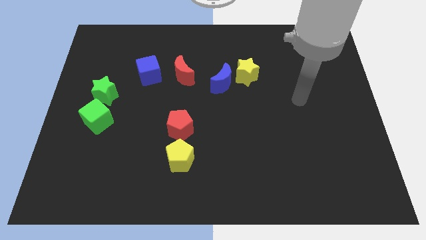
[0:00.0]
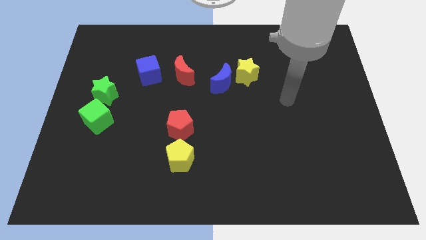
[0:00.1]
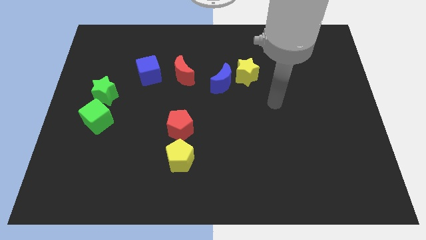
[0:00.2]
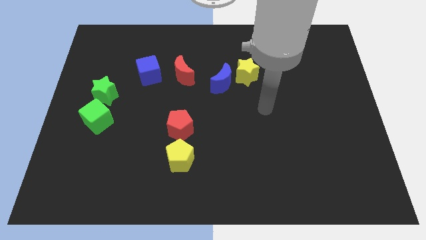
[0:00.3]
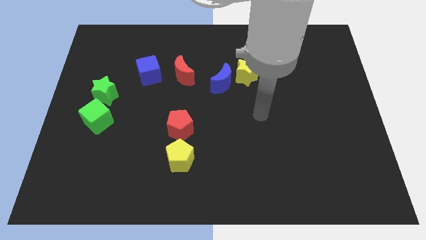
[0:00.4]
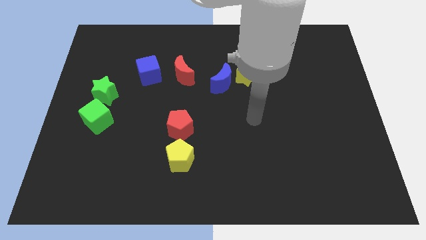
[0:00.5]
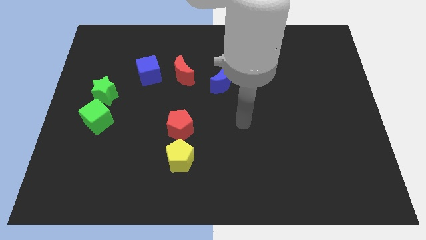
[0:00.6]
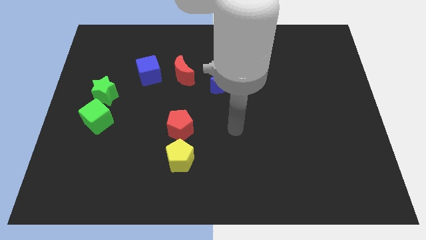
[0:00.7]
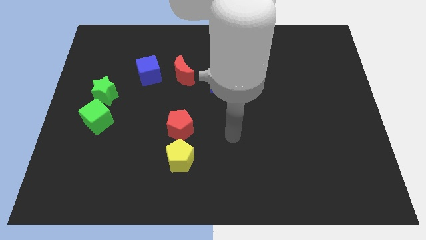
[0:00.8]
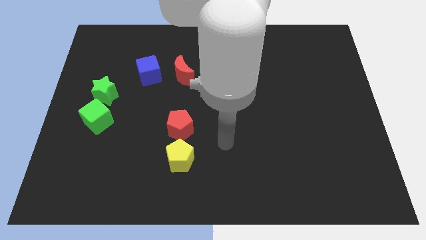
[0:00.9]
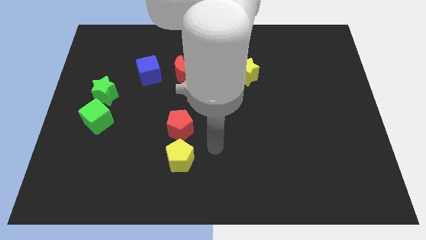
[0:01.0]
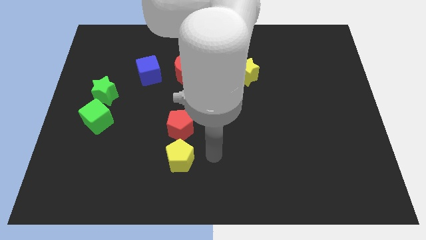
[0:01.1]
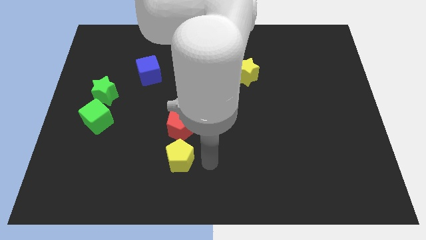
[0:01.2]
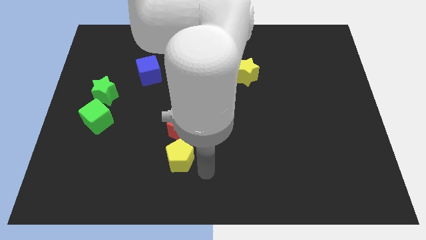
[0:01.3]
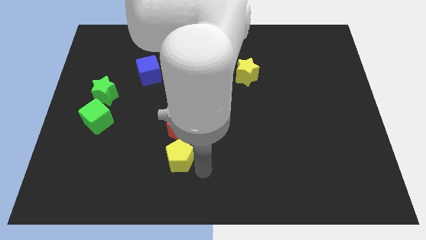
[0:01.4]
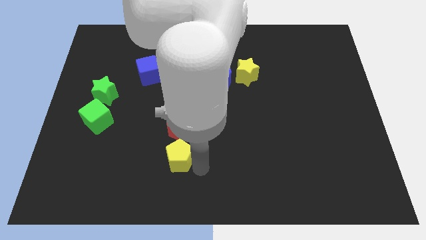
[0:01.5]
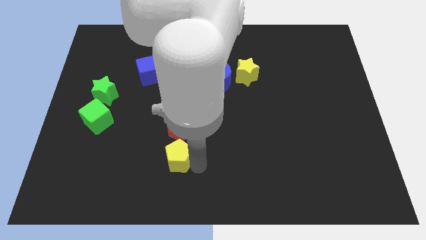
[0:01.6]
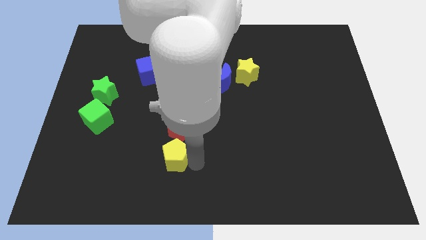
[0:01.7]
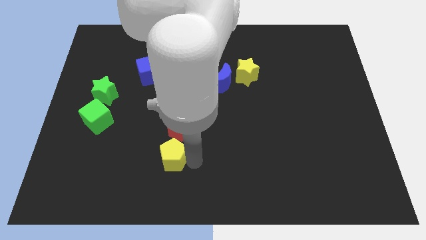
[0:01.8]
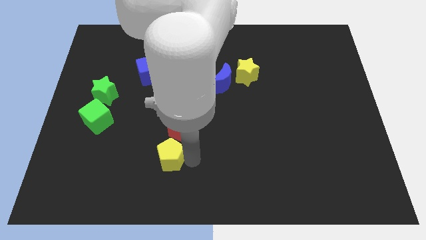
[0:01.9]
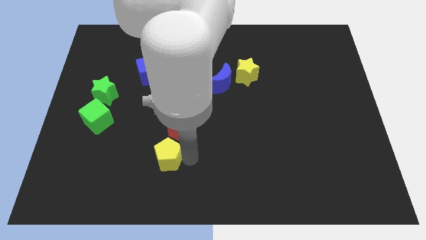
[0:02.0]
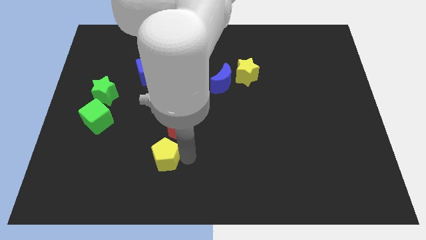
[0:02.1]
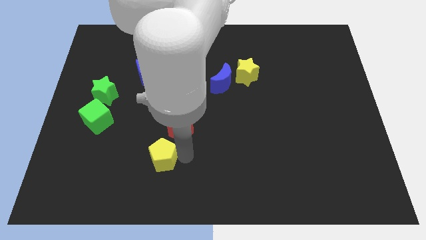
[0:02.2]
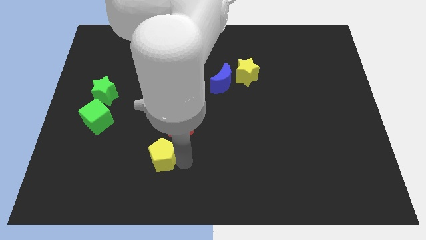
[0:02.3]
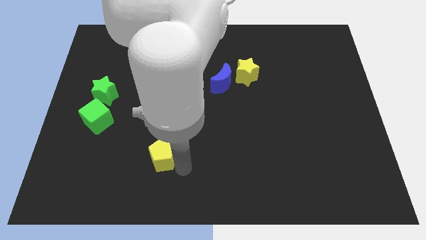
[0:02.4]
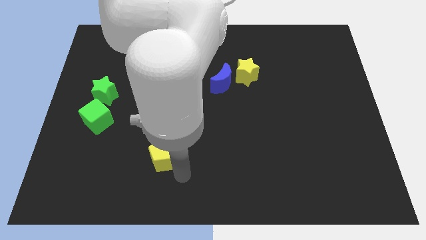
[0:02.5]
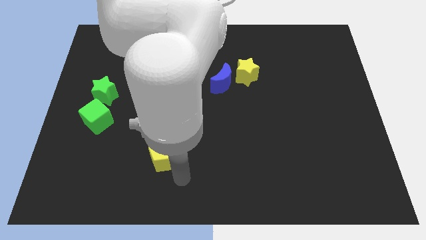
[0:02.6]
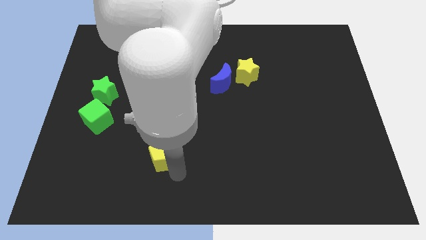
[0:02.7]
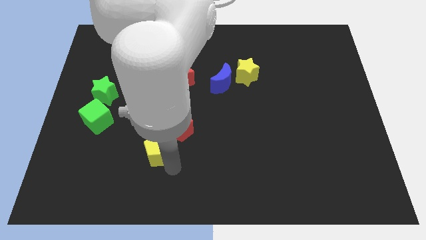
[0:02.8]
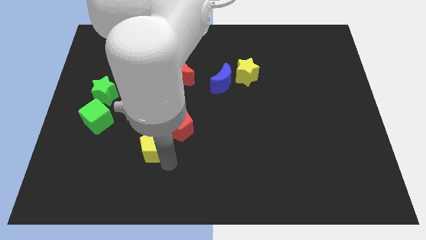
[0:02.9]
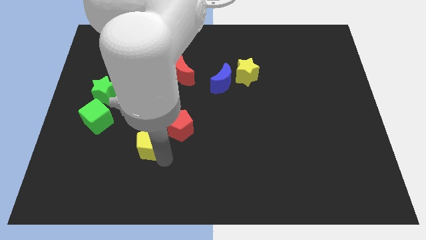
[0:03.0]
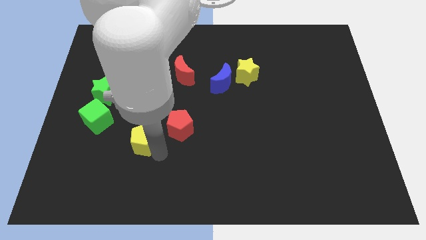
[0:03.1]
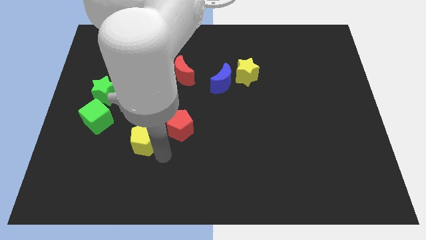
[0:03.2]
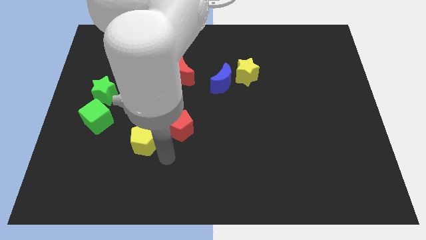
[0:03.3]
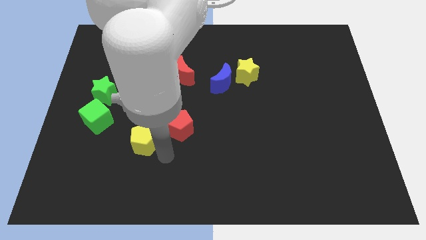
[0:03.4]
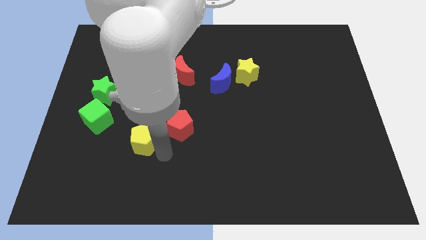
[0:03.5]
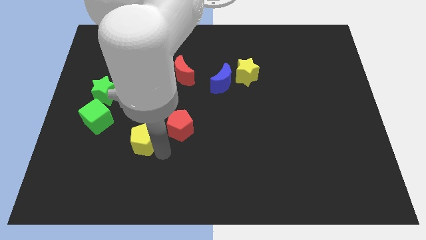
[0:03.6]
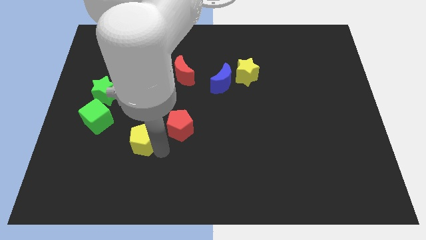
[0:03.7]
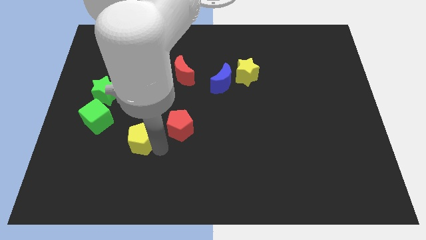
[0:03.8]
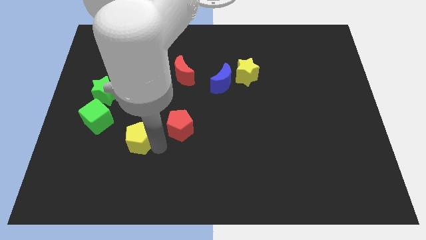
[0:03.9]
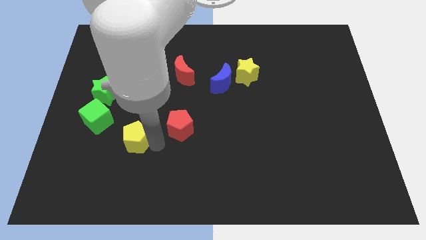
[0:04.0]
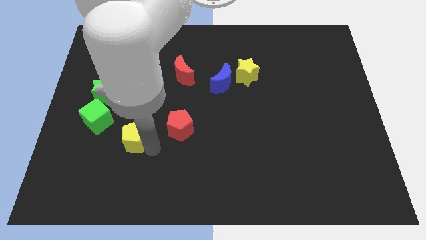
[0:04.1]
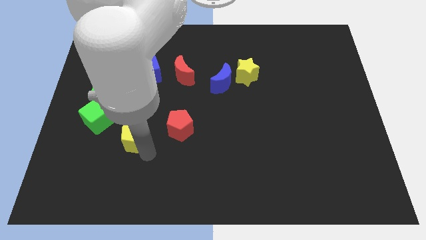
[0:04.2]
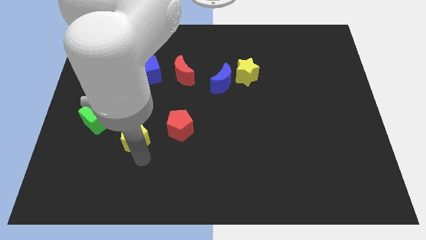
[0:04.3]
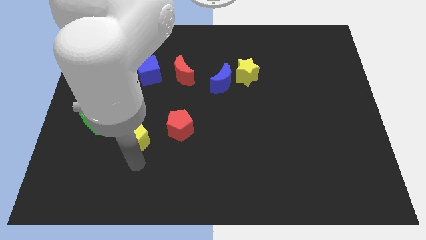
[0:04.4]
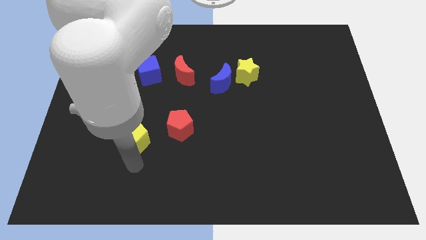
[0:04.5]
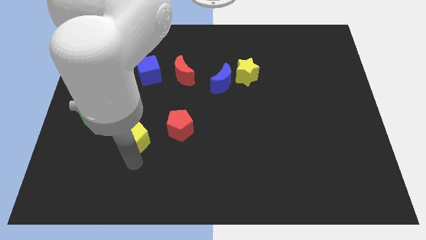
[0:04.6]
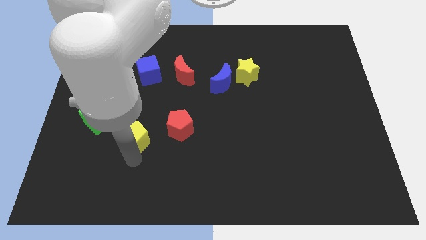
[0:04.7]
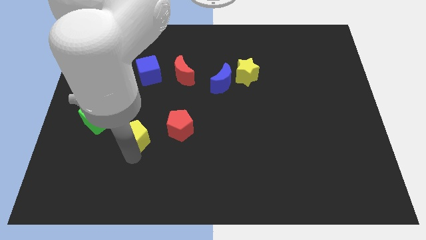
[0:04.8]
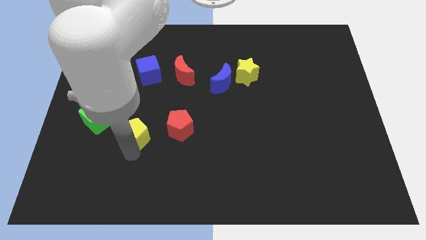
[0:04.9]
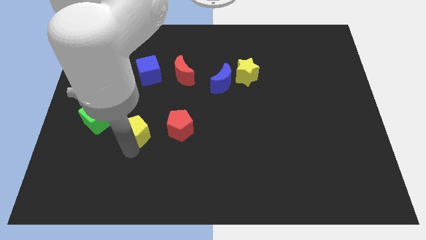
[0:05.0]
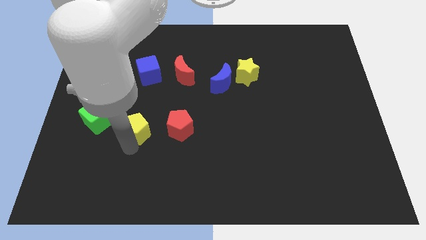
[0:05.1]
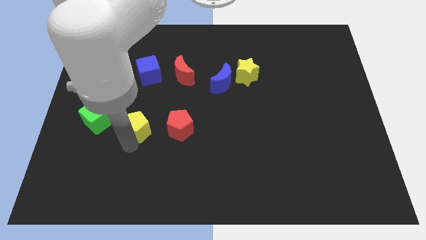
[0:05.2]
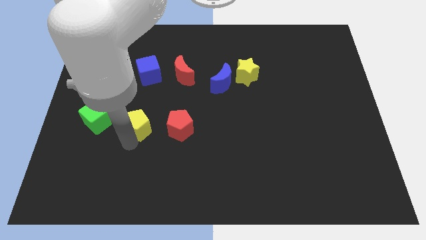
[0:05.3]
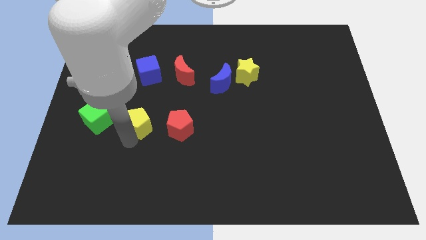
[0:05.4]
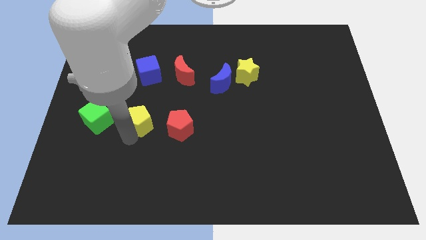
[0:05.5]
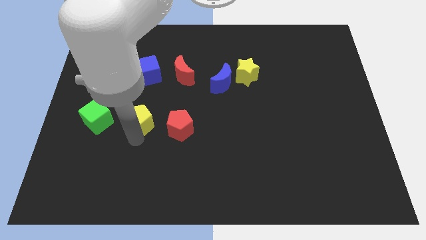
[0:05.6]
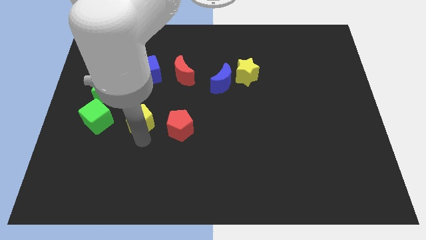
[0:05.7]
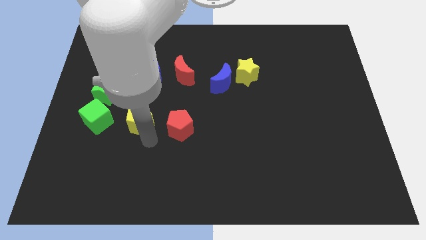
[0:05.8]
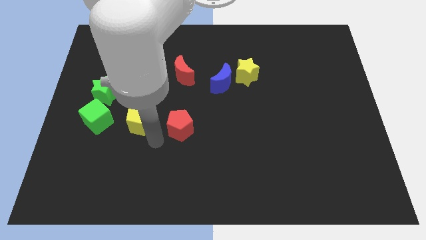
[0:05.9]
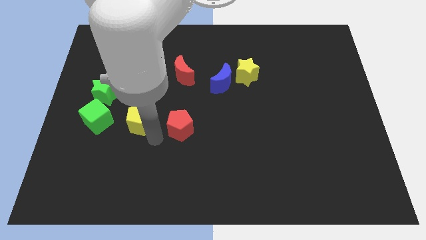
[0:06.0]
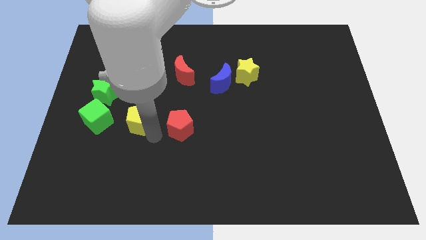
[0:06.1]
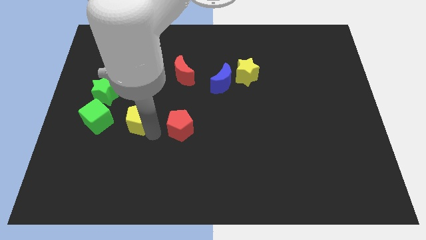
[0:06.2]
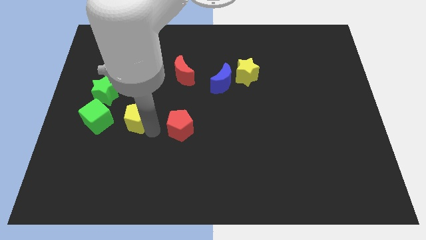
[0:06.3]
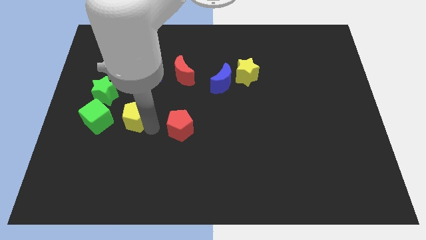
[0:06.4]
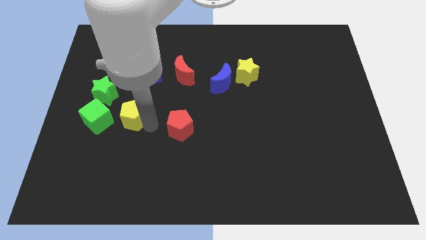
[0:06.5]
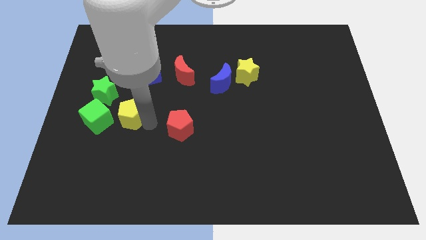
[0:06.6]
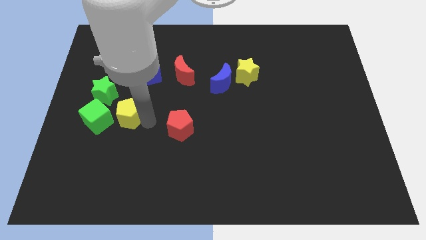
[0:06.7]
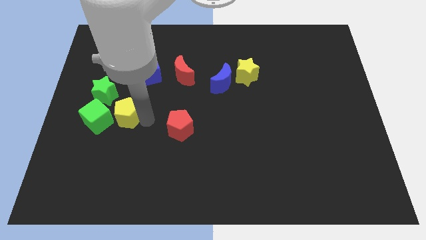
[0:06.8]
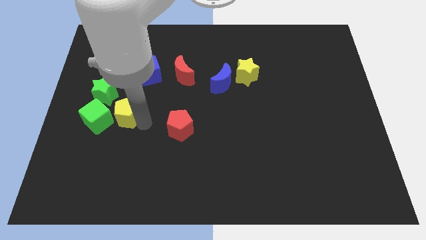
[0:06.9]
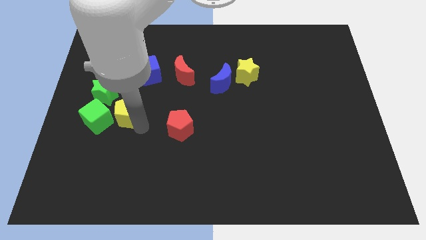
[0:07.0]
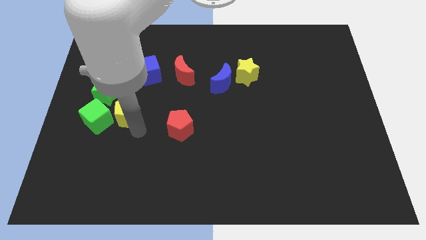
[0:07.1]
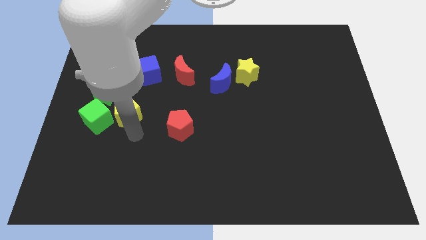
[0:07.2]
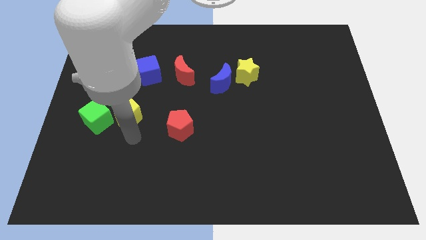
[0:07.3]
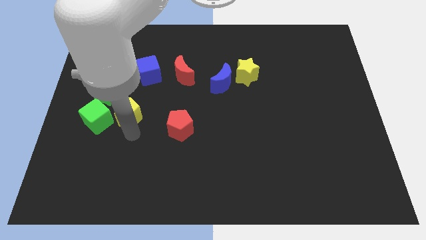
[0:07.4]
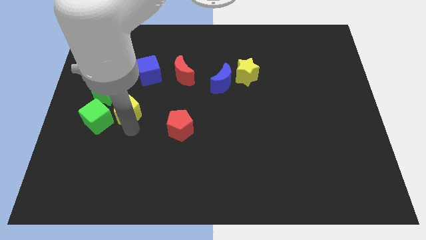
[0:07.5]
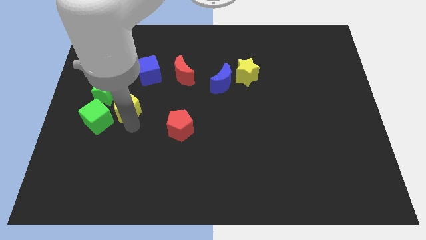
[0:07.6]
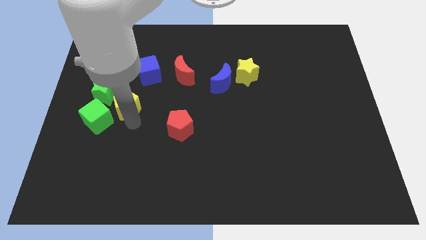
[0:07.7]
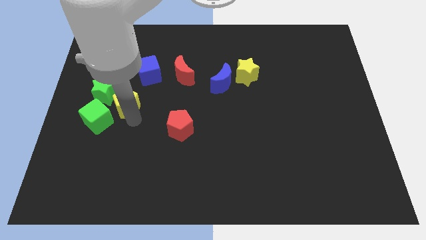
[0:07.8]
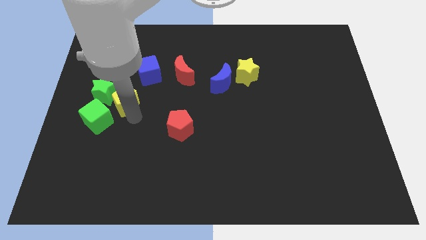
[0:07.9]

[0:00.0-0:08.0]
slide the yellow pentagon close to the green star
